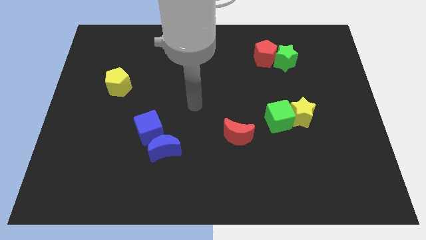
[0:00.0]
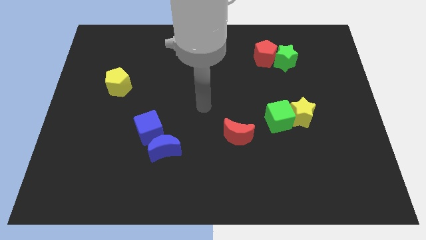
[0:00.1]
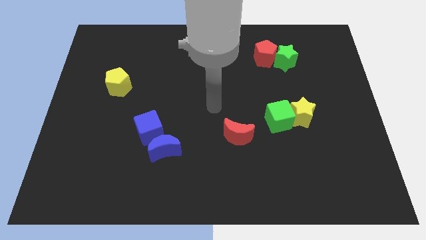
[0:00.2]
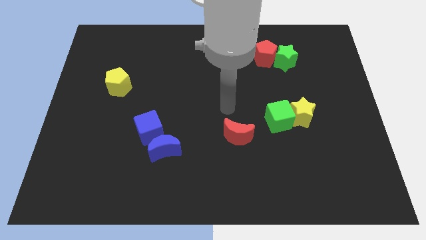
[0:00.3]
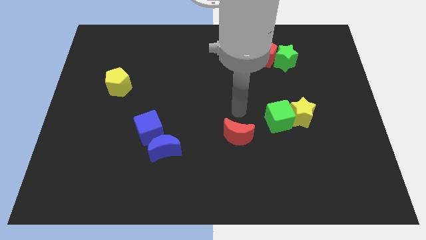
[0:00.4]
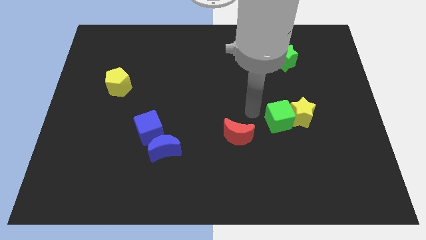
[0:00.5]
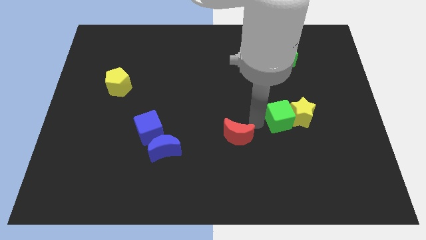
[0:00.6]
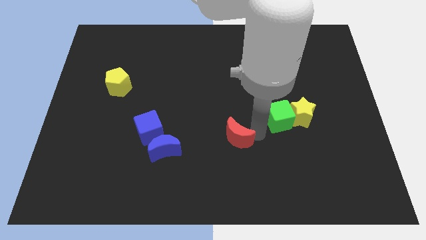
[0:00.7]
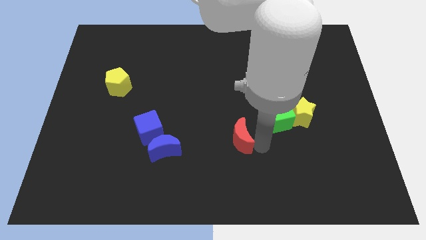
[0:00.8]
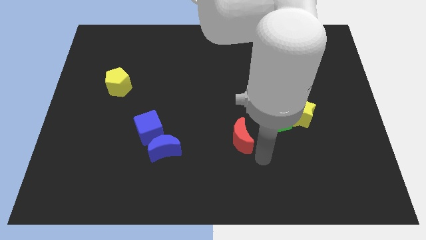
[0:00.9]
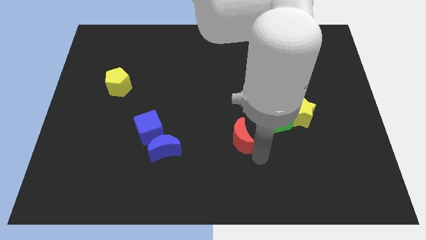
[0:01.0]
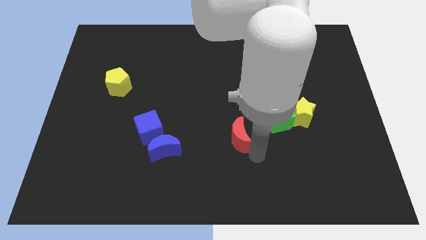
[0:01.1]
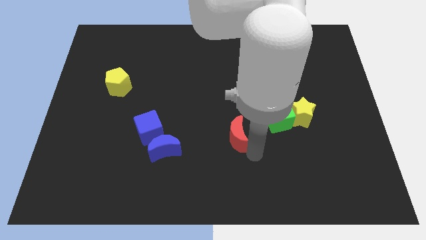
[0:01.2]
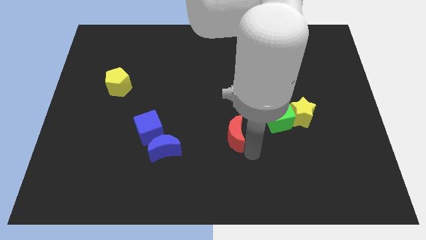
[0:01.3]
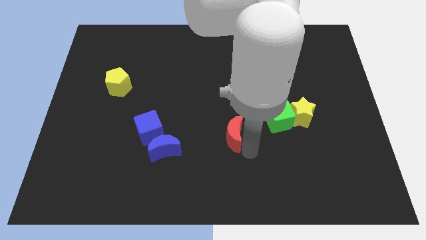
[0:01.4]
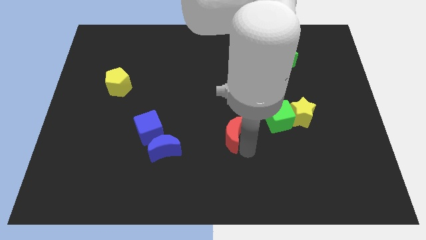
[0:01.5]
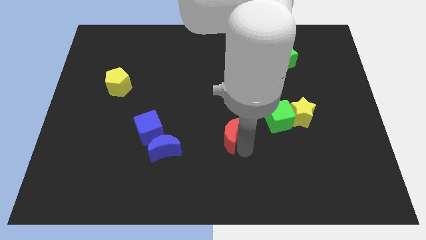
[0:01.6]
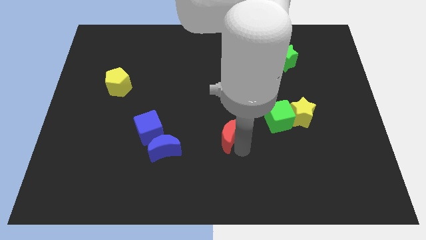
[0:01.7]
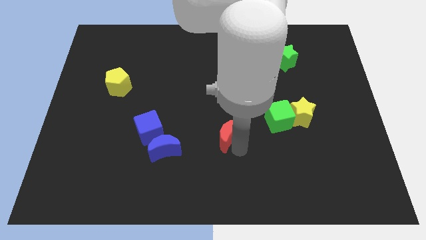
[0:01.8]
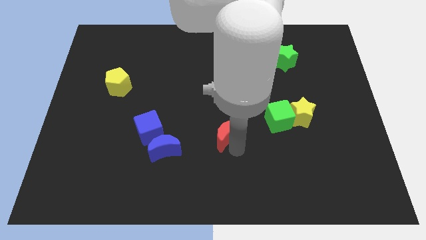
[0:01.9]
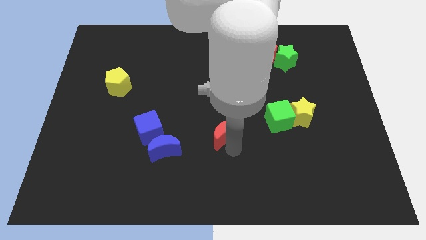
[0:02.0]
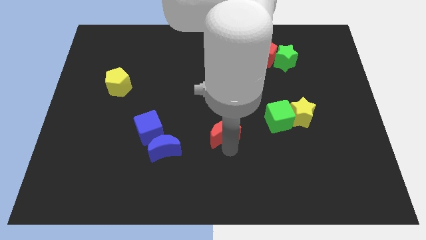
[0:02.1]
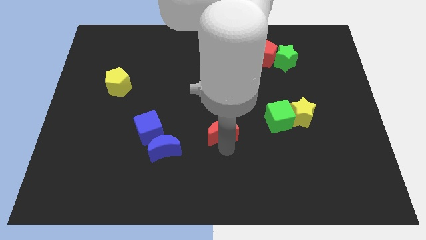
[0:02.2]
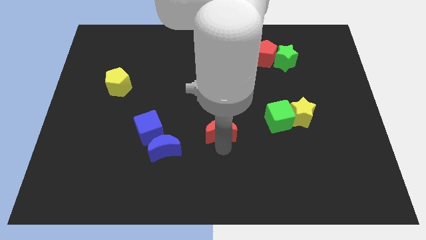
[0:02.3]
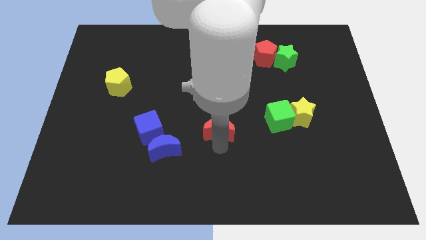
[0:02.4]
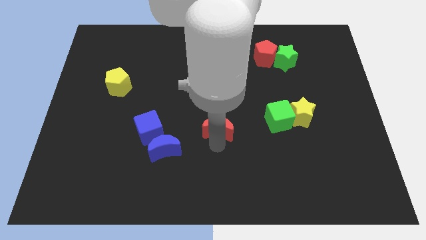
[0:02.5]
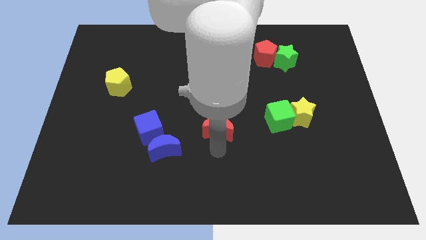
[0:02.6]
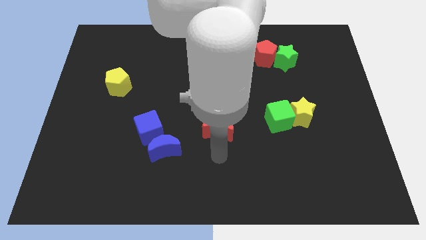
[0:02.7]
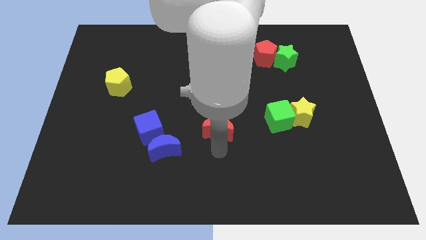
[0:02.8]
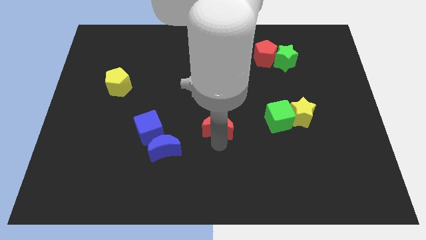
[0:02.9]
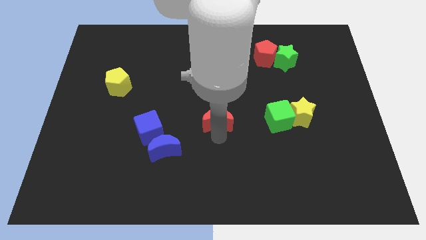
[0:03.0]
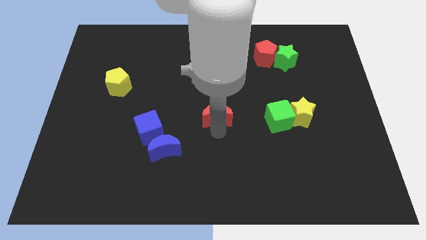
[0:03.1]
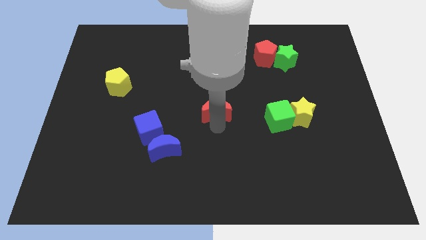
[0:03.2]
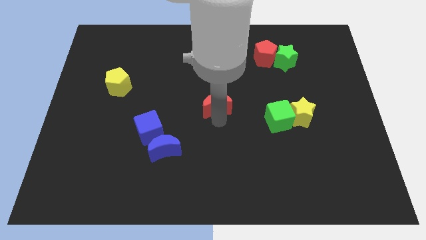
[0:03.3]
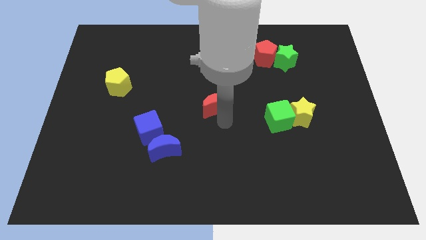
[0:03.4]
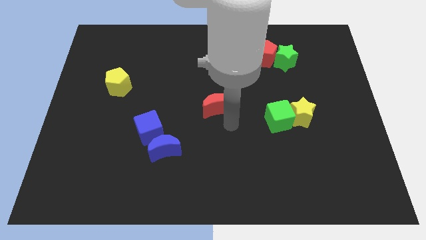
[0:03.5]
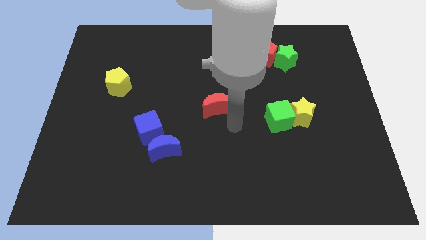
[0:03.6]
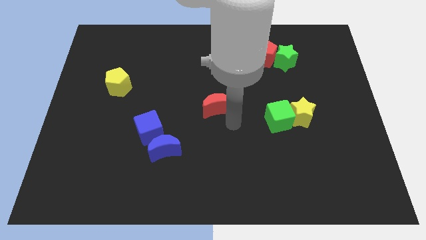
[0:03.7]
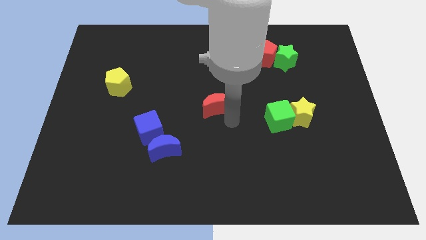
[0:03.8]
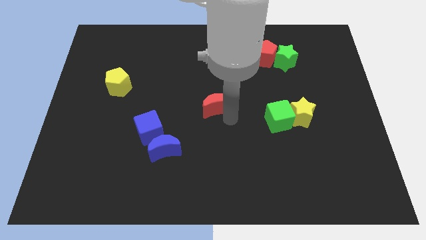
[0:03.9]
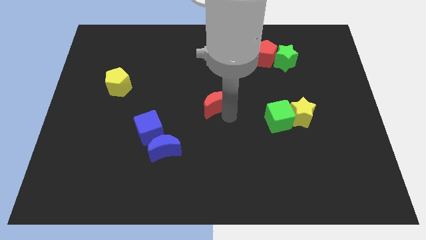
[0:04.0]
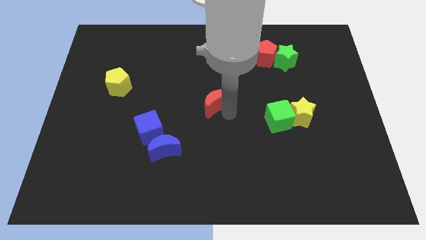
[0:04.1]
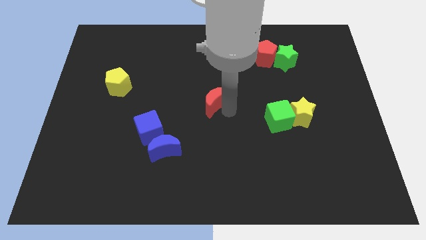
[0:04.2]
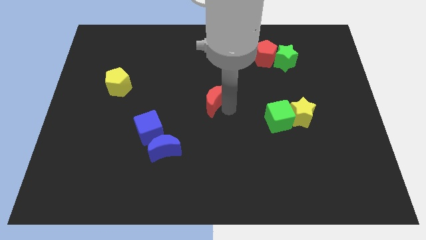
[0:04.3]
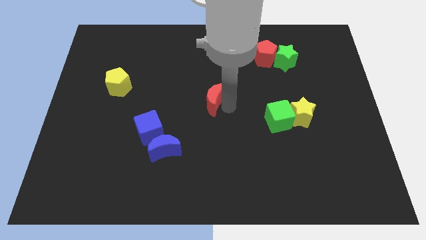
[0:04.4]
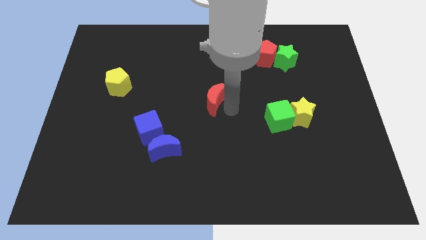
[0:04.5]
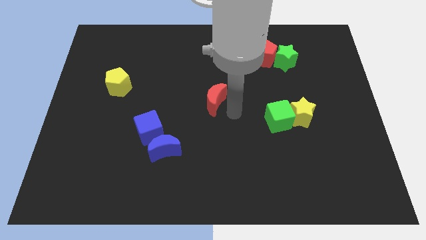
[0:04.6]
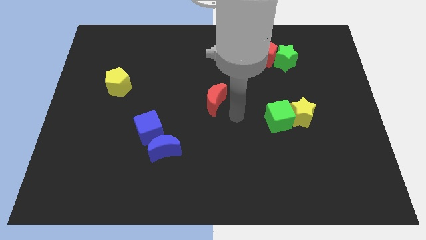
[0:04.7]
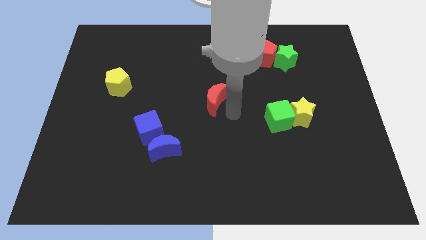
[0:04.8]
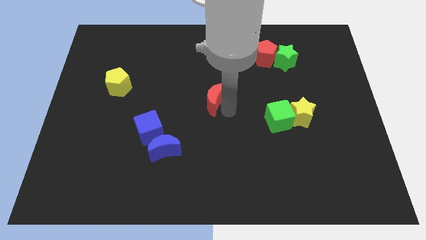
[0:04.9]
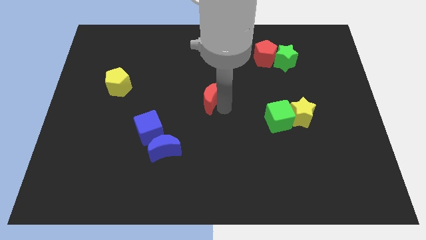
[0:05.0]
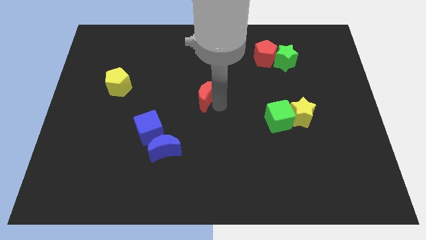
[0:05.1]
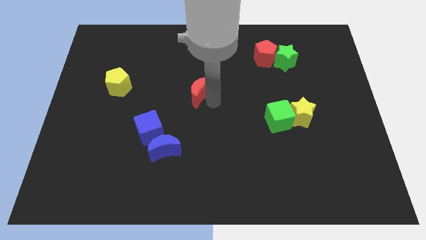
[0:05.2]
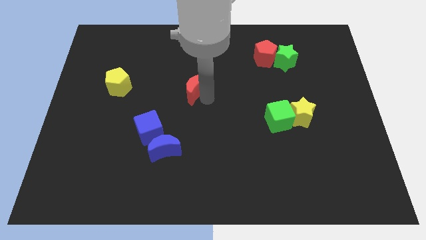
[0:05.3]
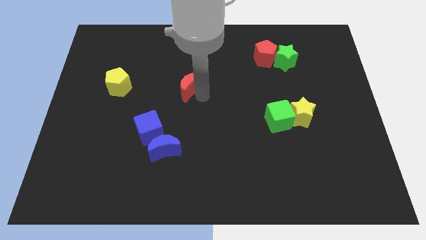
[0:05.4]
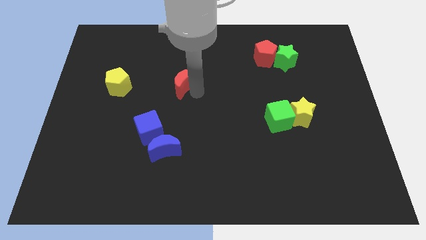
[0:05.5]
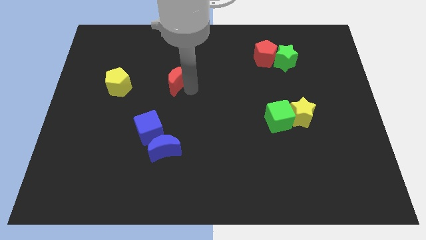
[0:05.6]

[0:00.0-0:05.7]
push the red moon diagonally upwards and to the left

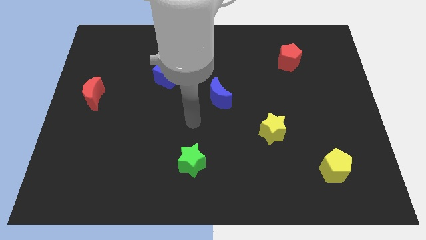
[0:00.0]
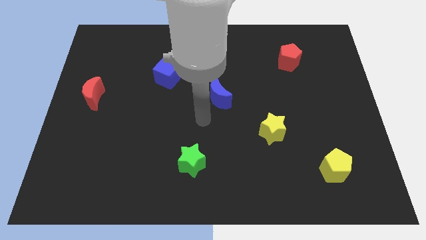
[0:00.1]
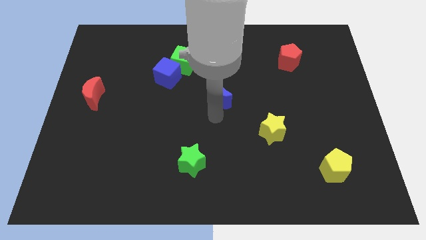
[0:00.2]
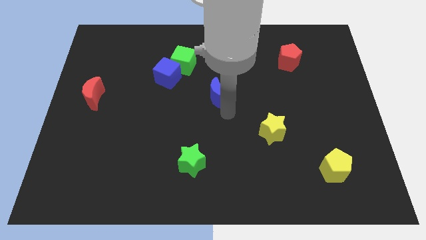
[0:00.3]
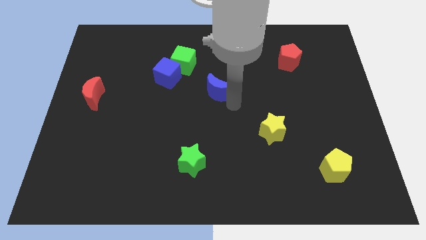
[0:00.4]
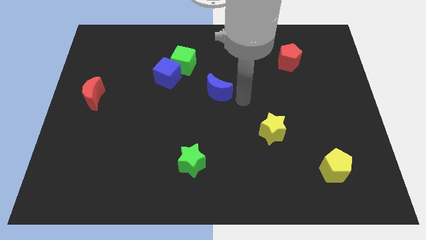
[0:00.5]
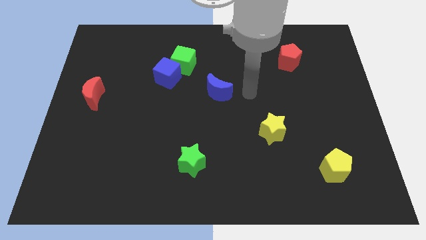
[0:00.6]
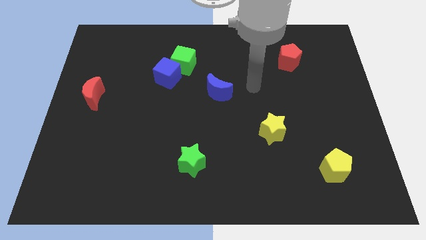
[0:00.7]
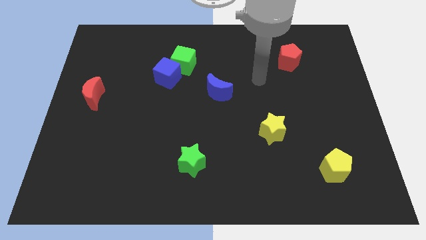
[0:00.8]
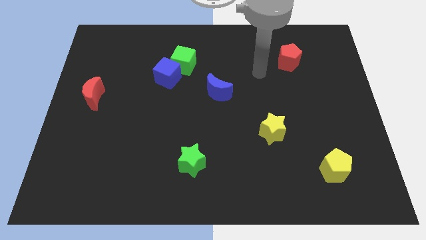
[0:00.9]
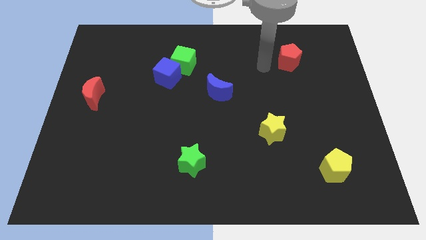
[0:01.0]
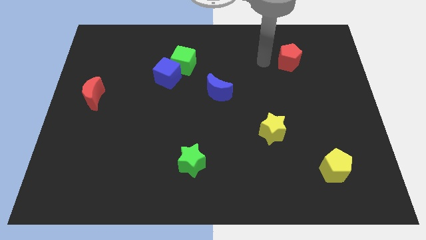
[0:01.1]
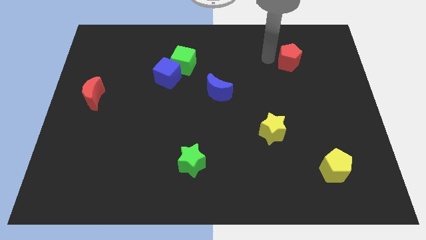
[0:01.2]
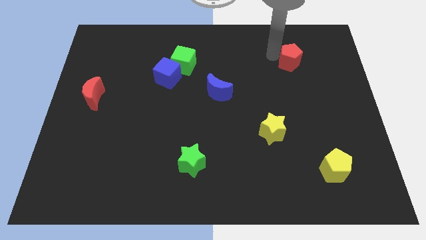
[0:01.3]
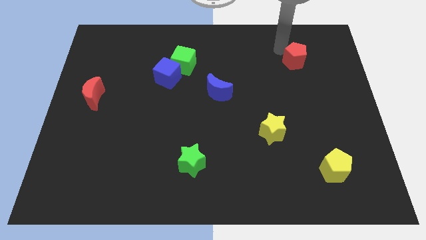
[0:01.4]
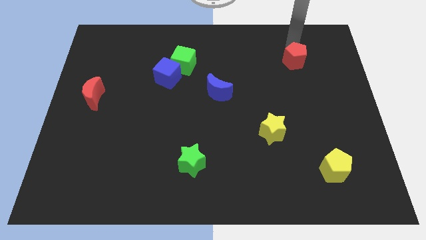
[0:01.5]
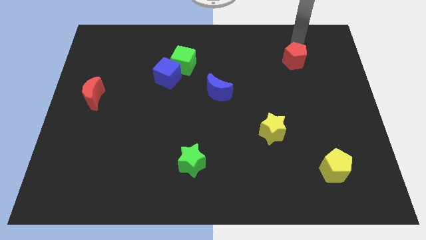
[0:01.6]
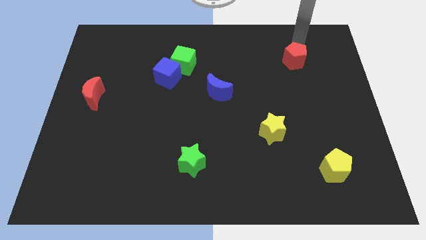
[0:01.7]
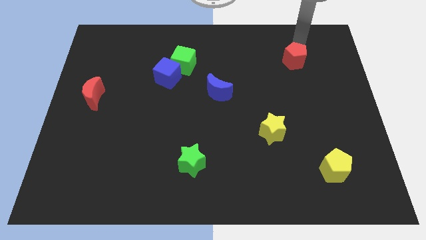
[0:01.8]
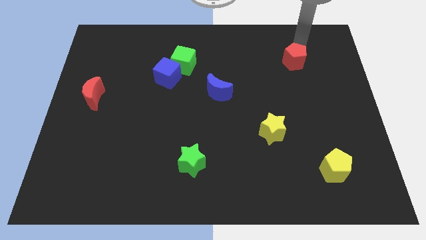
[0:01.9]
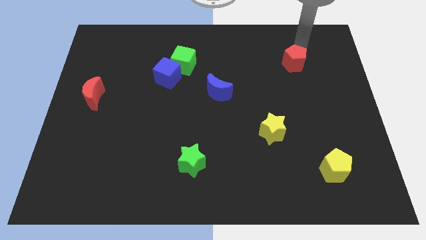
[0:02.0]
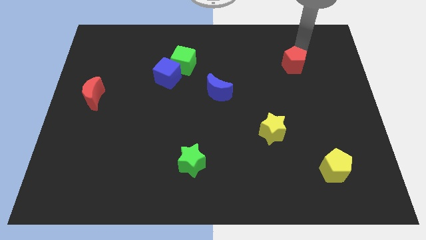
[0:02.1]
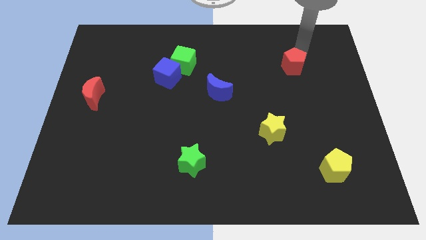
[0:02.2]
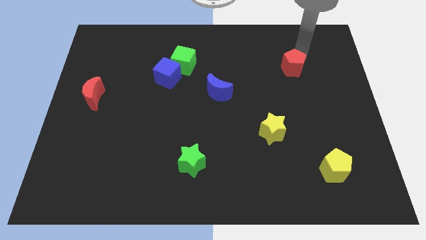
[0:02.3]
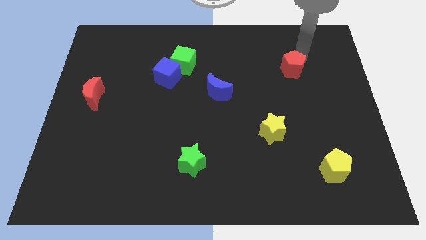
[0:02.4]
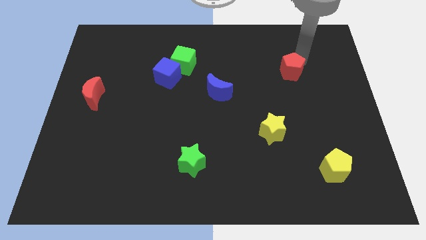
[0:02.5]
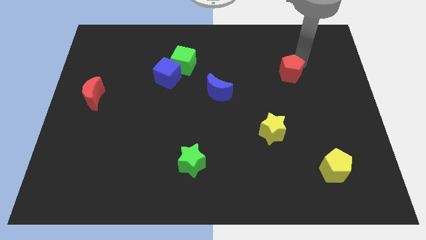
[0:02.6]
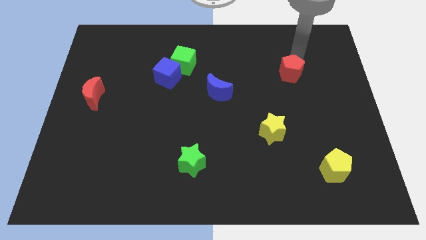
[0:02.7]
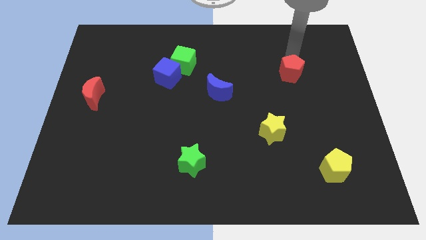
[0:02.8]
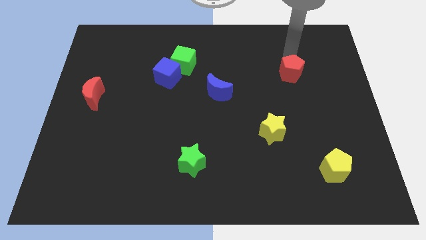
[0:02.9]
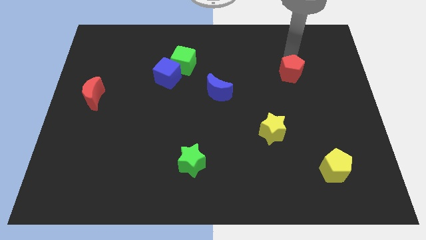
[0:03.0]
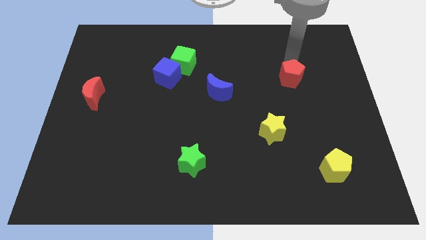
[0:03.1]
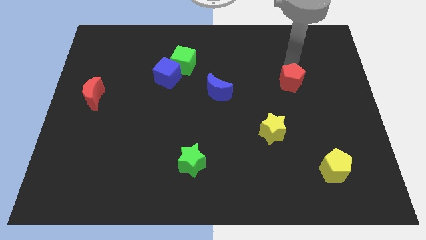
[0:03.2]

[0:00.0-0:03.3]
slide the red pentagon downwards a little
